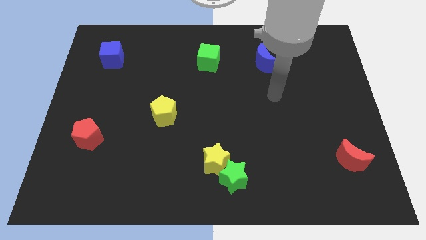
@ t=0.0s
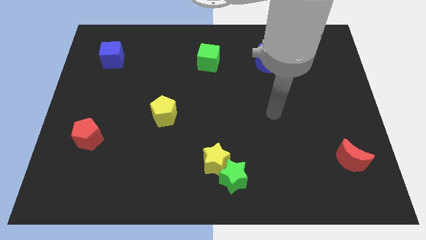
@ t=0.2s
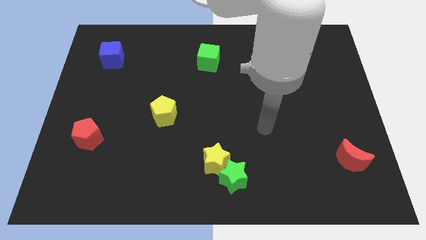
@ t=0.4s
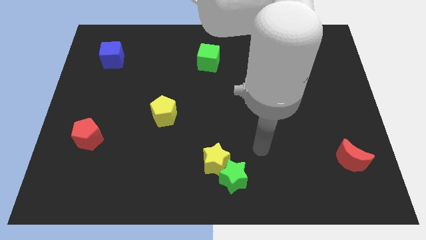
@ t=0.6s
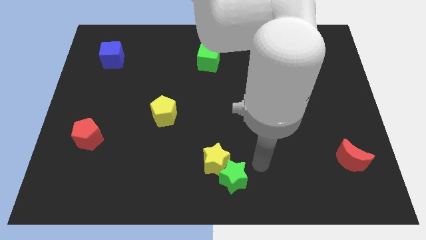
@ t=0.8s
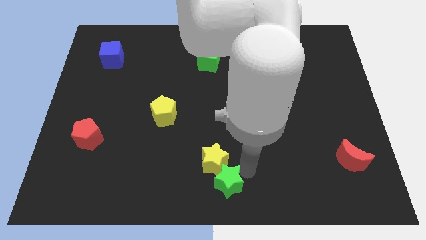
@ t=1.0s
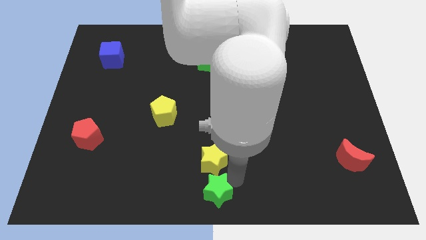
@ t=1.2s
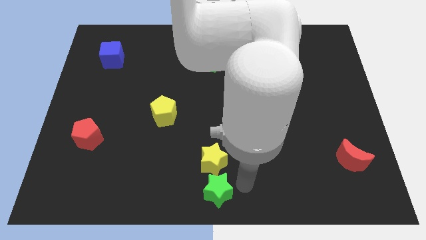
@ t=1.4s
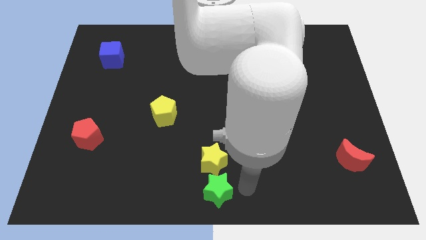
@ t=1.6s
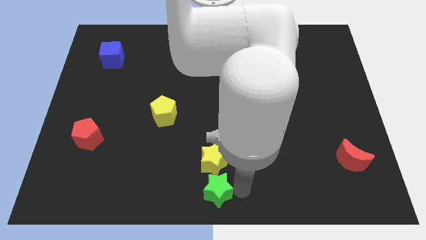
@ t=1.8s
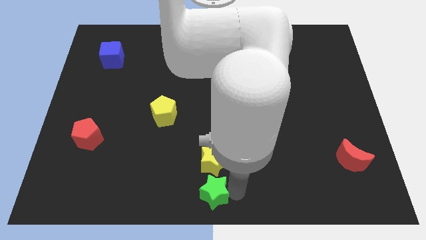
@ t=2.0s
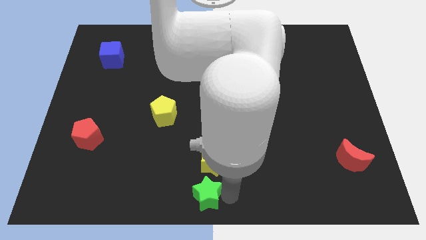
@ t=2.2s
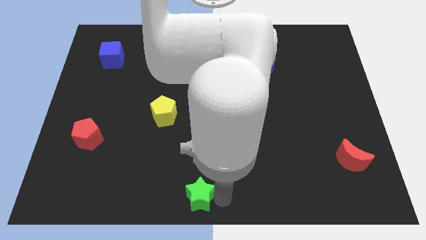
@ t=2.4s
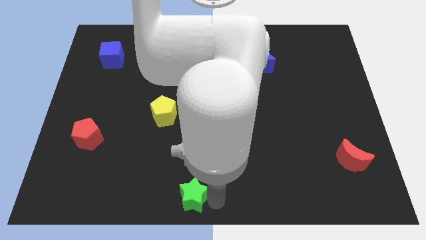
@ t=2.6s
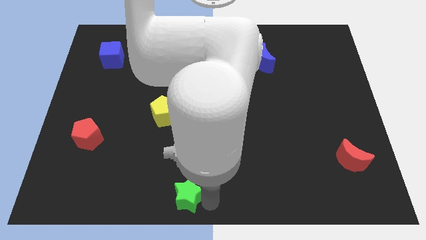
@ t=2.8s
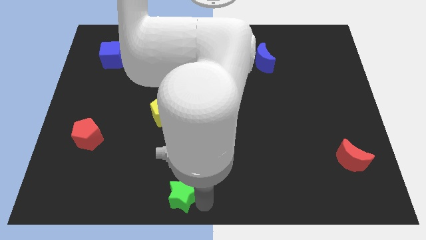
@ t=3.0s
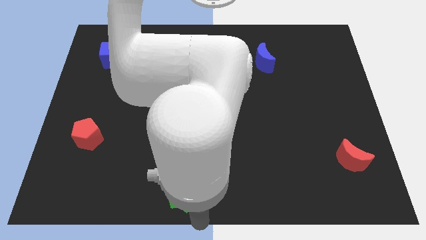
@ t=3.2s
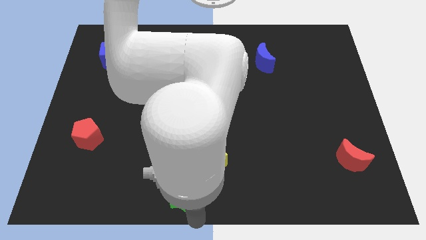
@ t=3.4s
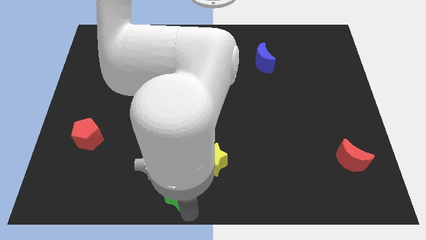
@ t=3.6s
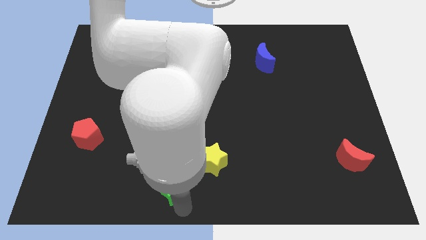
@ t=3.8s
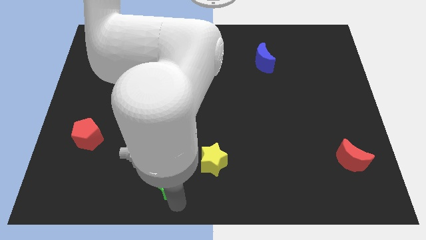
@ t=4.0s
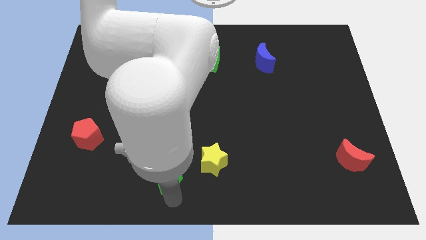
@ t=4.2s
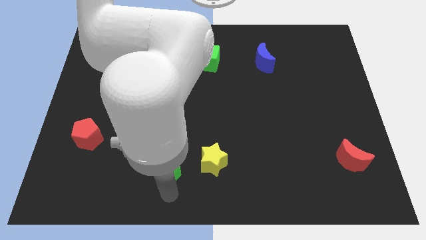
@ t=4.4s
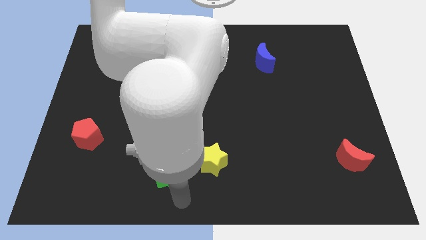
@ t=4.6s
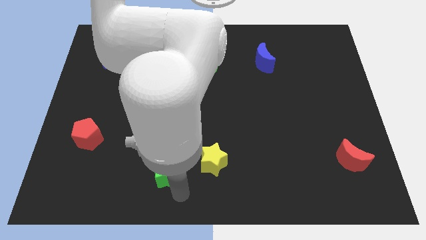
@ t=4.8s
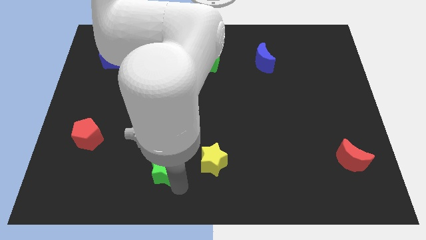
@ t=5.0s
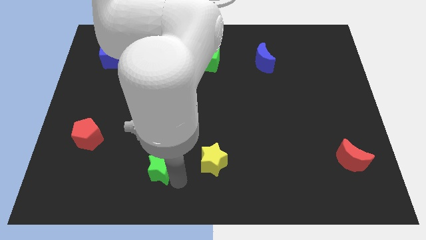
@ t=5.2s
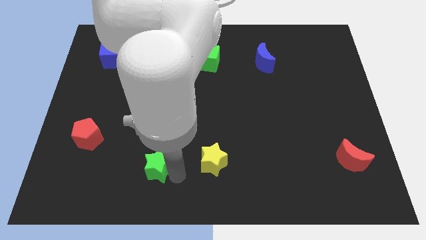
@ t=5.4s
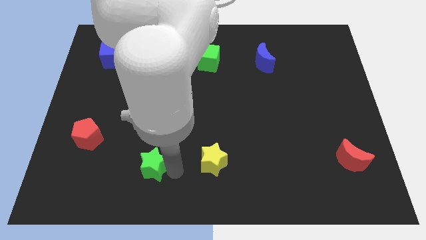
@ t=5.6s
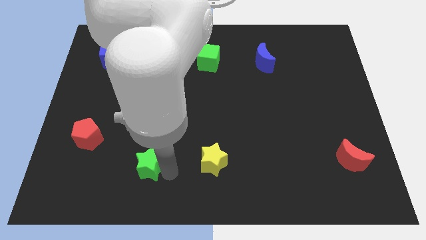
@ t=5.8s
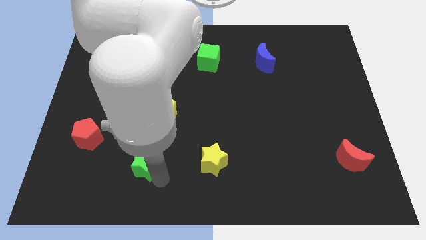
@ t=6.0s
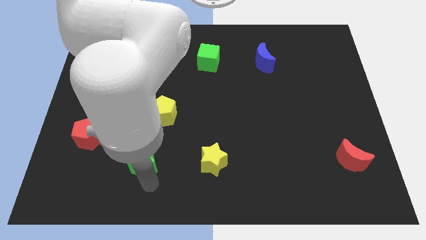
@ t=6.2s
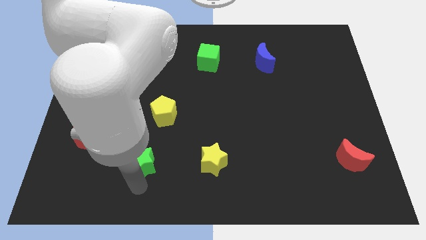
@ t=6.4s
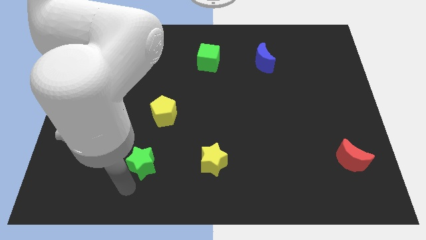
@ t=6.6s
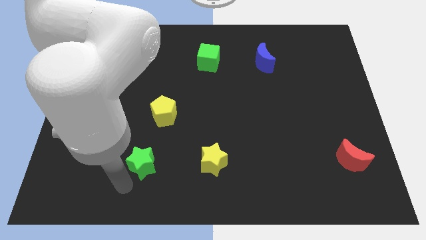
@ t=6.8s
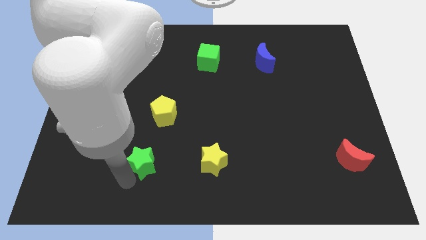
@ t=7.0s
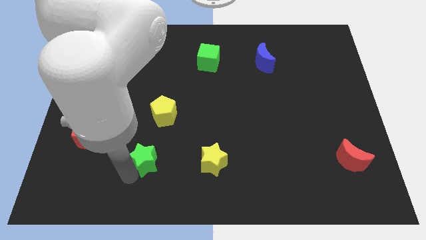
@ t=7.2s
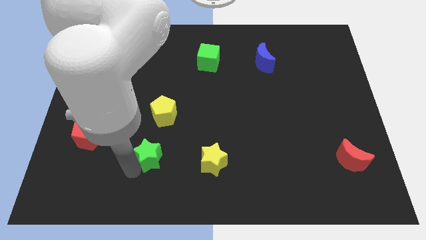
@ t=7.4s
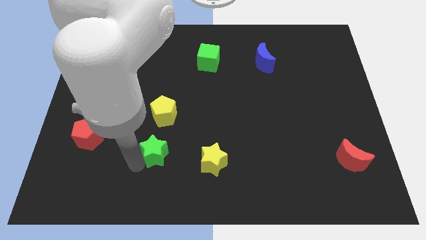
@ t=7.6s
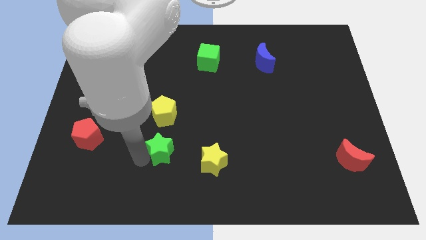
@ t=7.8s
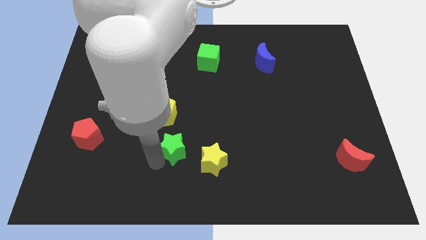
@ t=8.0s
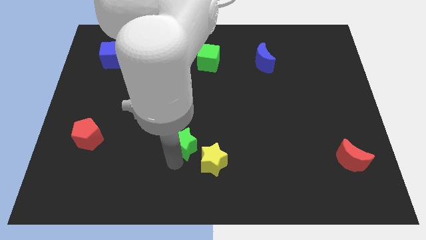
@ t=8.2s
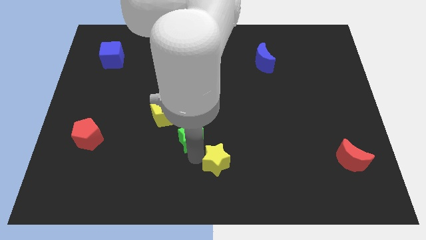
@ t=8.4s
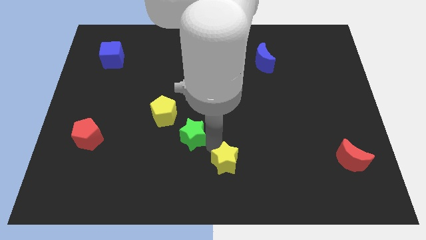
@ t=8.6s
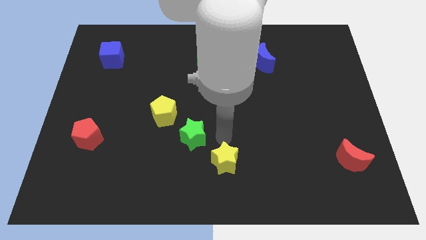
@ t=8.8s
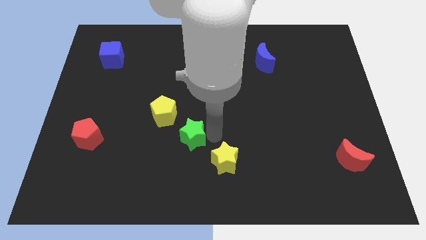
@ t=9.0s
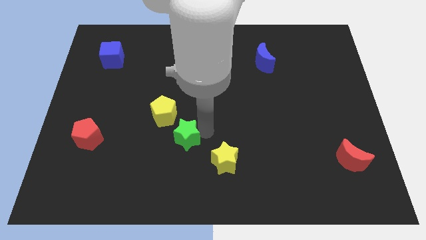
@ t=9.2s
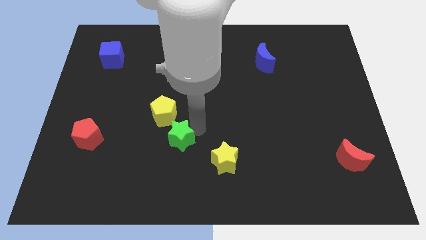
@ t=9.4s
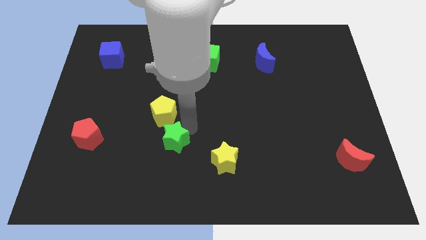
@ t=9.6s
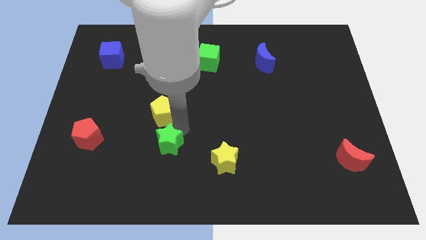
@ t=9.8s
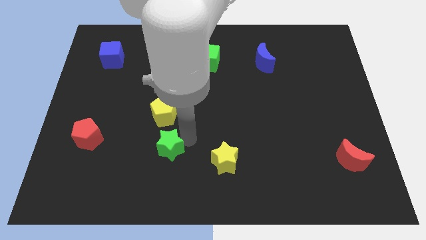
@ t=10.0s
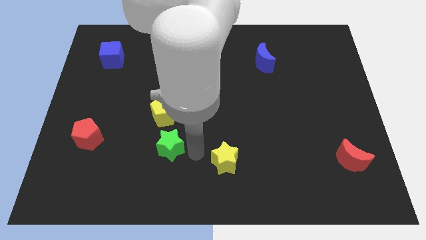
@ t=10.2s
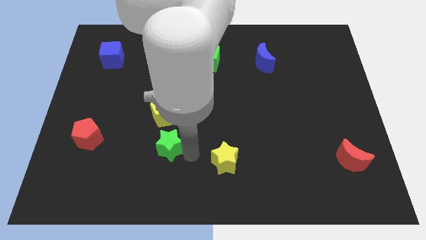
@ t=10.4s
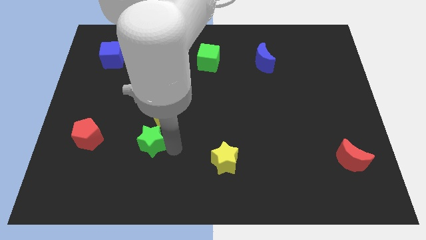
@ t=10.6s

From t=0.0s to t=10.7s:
slide the green star diagonally down and to the left of the yellow pentagon

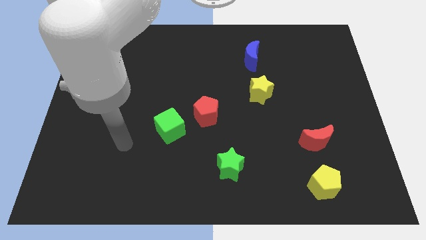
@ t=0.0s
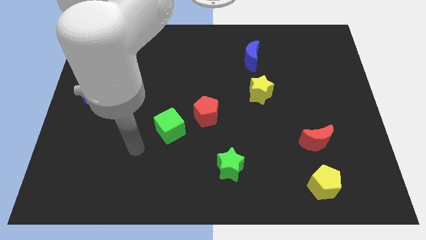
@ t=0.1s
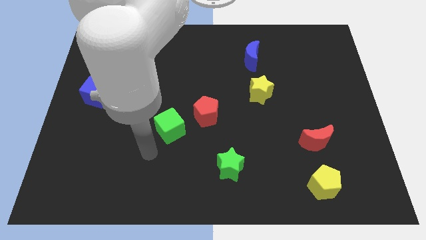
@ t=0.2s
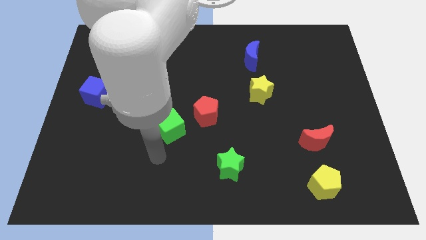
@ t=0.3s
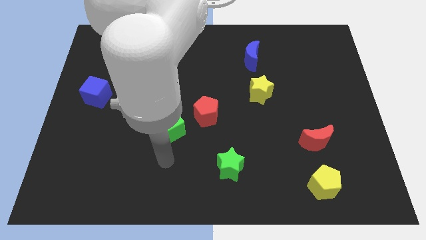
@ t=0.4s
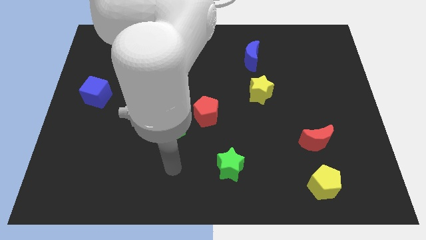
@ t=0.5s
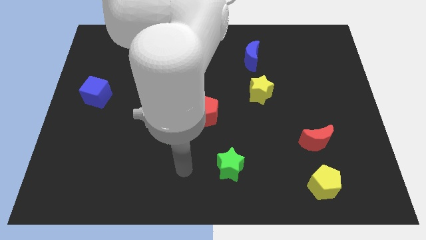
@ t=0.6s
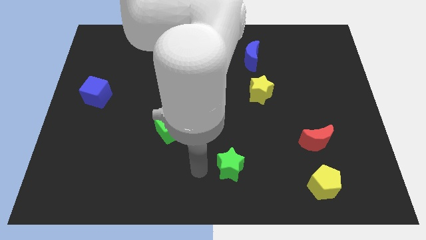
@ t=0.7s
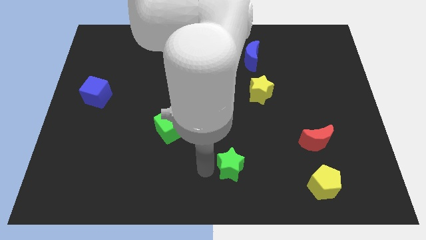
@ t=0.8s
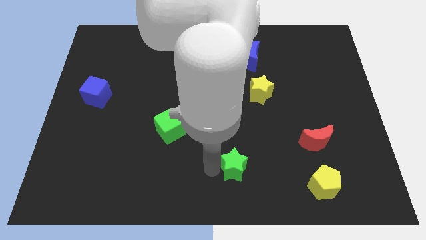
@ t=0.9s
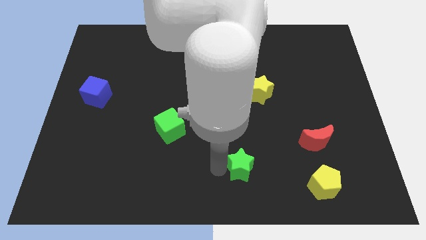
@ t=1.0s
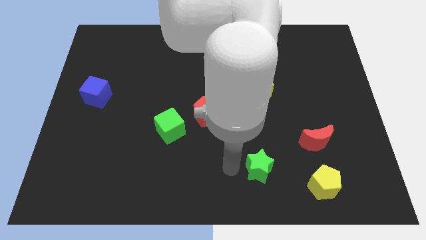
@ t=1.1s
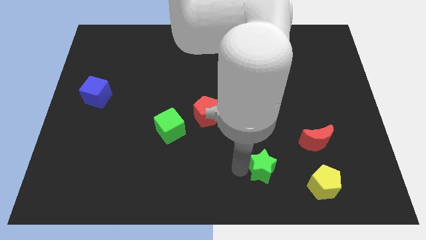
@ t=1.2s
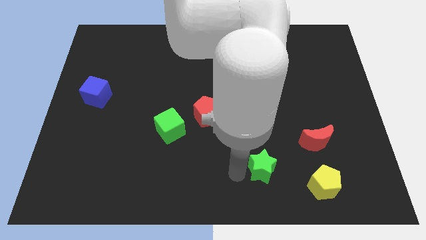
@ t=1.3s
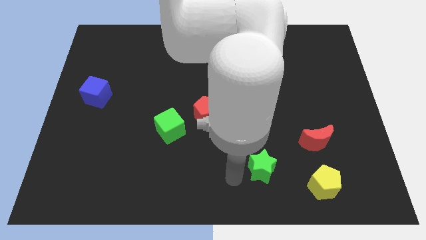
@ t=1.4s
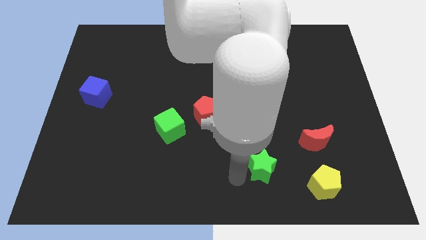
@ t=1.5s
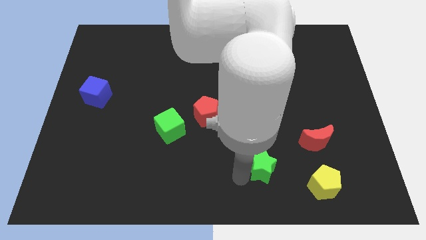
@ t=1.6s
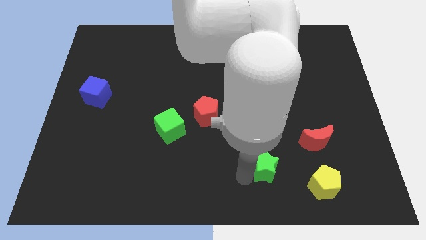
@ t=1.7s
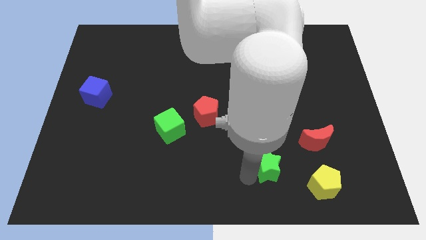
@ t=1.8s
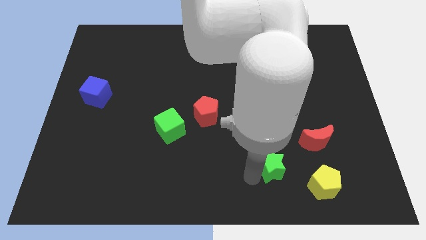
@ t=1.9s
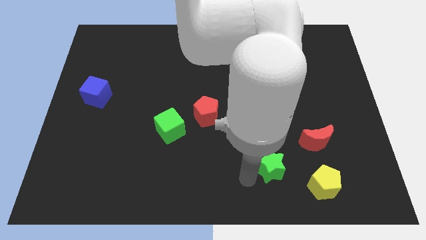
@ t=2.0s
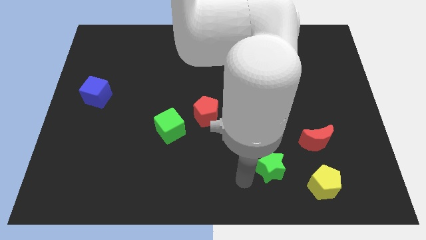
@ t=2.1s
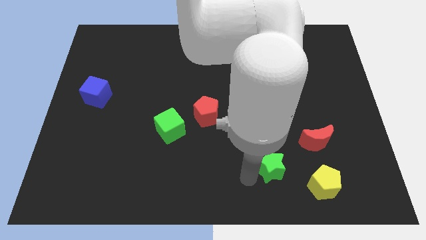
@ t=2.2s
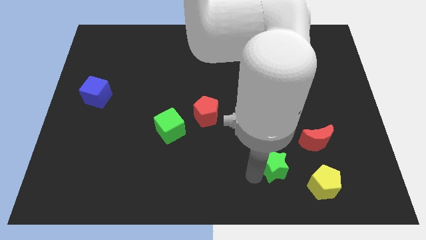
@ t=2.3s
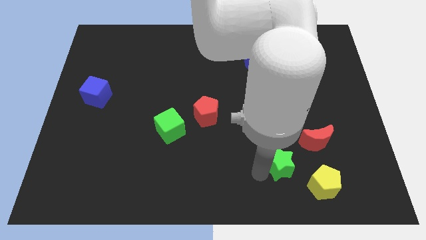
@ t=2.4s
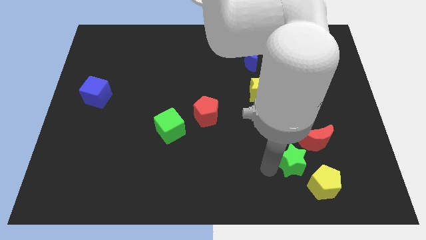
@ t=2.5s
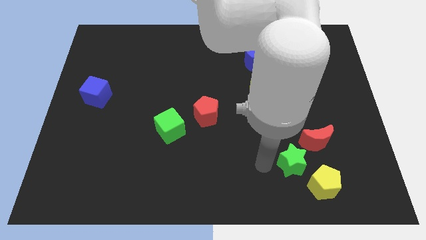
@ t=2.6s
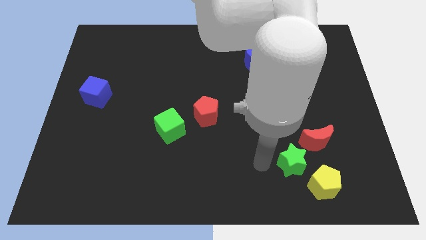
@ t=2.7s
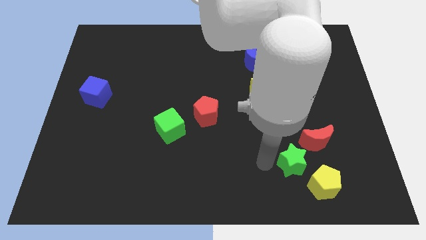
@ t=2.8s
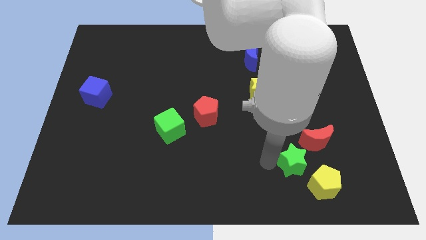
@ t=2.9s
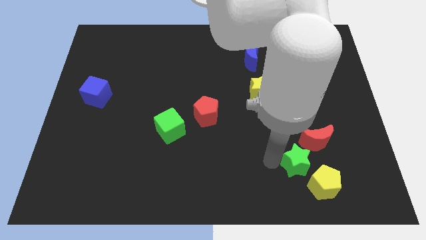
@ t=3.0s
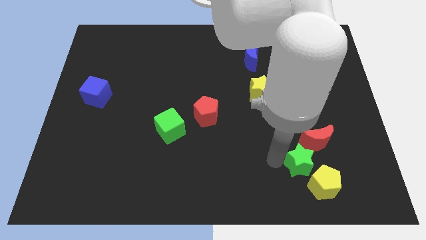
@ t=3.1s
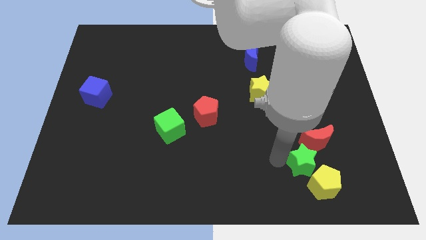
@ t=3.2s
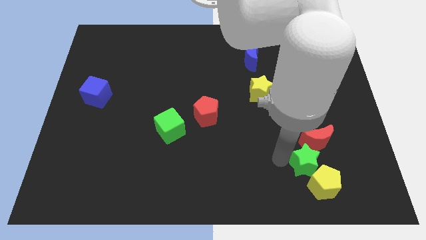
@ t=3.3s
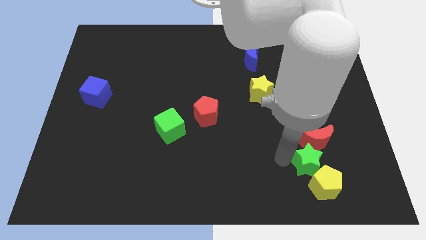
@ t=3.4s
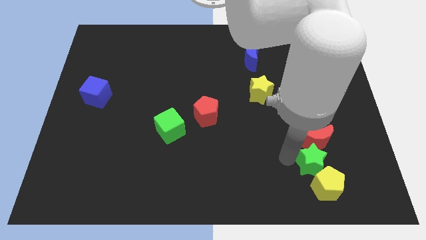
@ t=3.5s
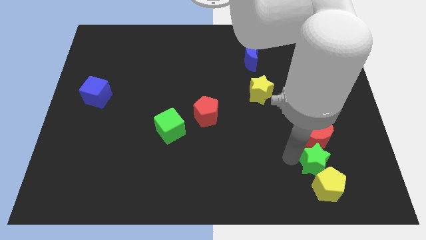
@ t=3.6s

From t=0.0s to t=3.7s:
slide the green star to the bottom right of the red moon
